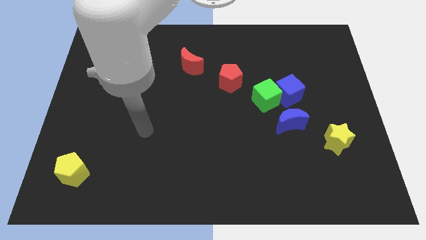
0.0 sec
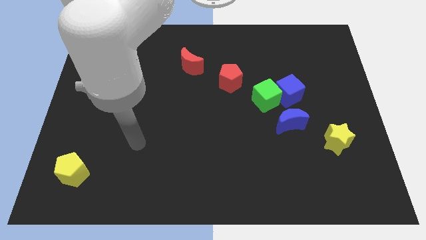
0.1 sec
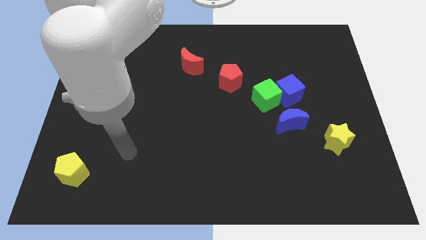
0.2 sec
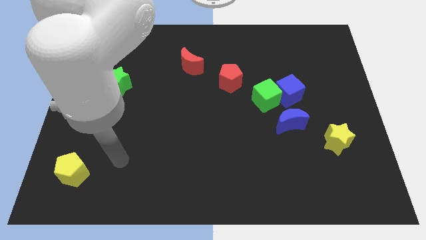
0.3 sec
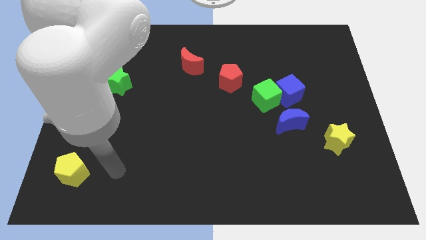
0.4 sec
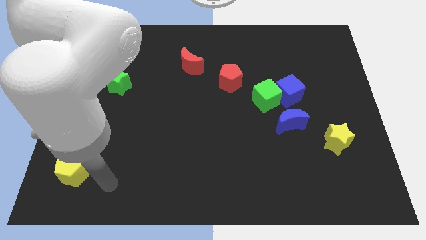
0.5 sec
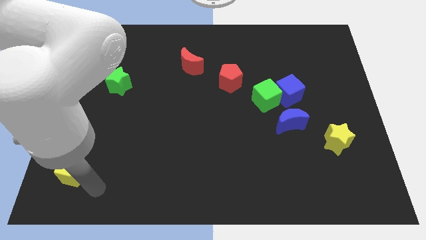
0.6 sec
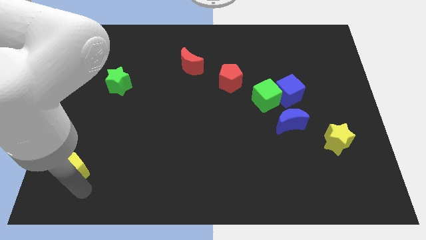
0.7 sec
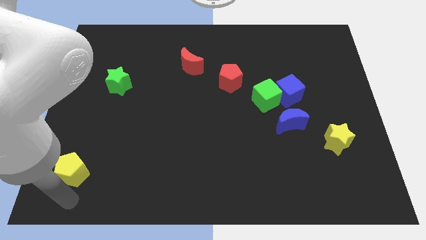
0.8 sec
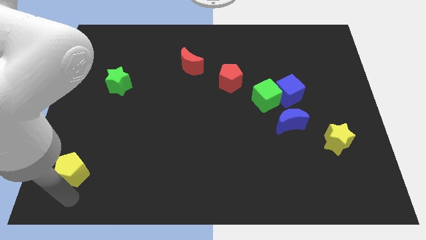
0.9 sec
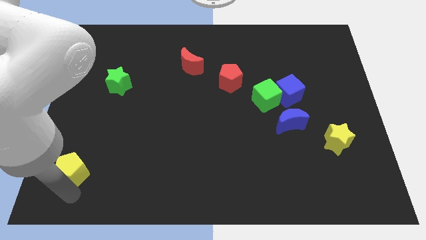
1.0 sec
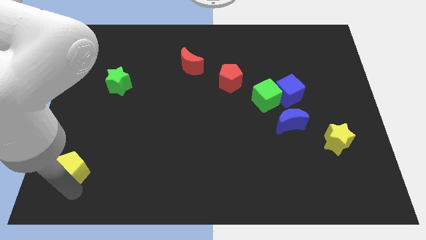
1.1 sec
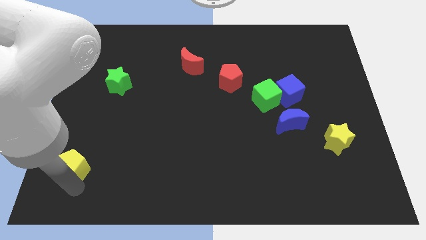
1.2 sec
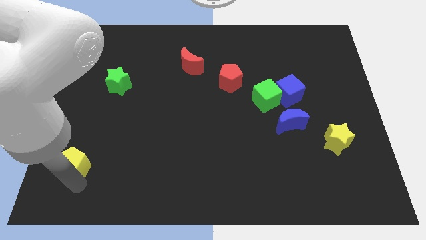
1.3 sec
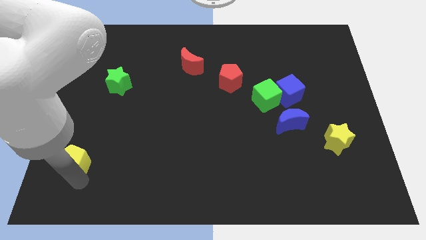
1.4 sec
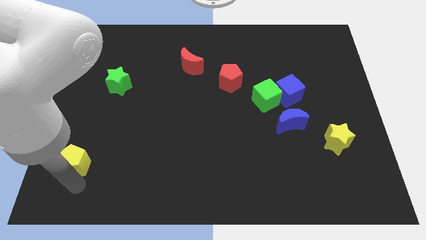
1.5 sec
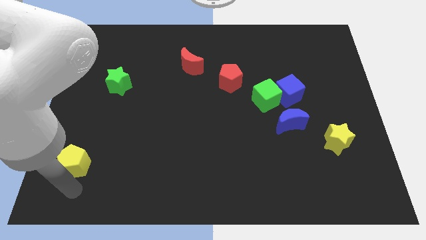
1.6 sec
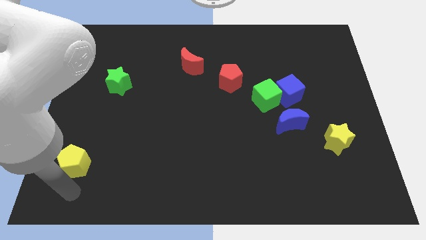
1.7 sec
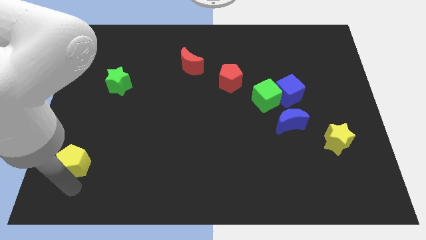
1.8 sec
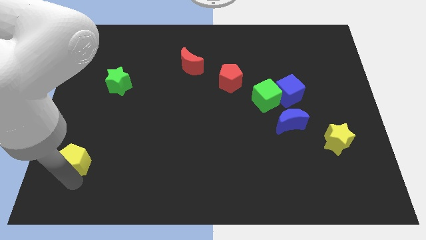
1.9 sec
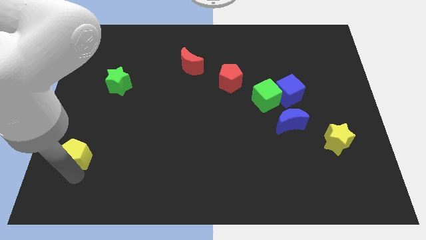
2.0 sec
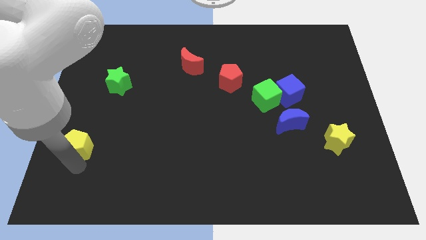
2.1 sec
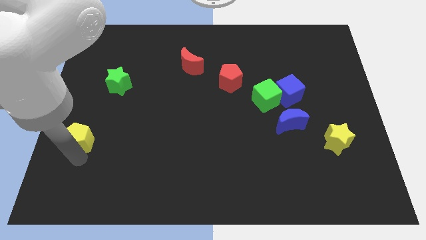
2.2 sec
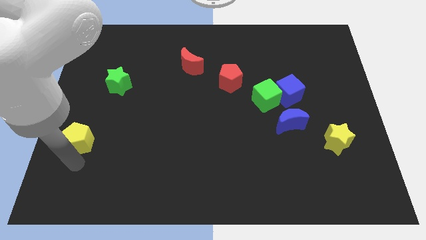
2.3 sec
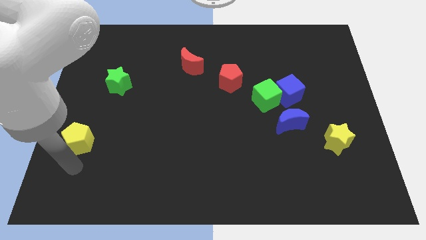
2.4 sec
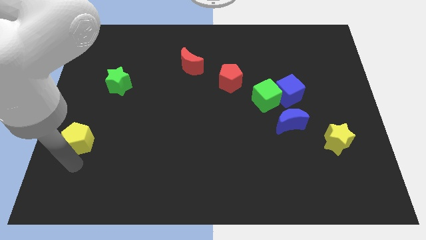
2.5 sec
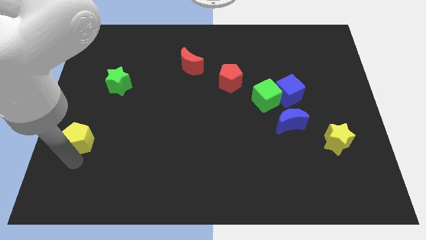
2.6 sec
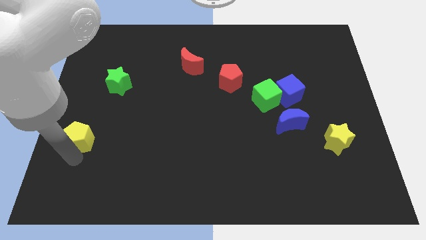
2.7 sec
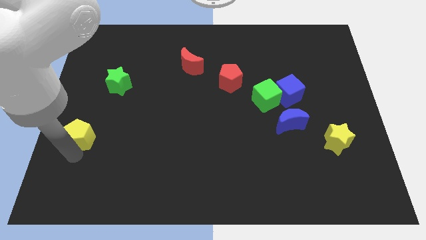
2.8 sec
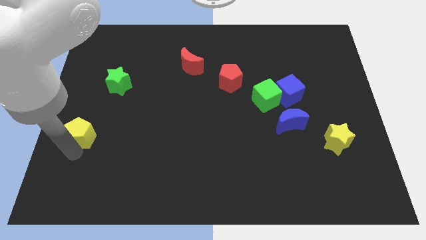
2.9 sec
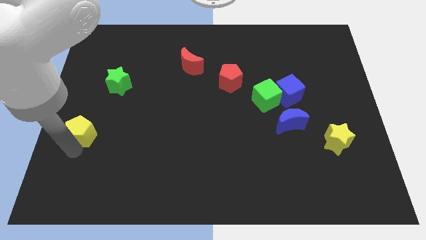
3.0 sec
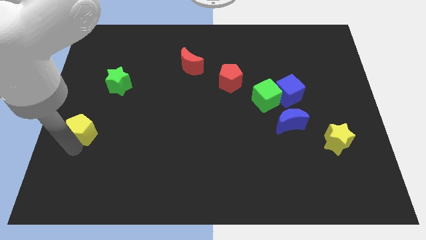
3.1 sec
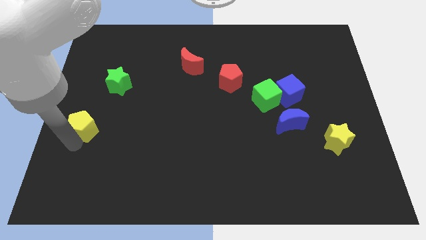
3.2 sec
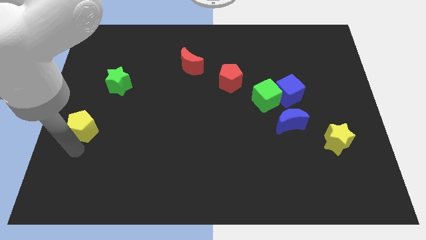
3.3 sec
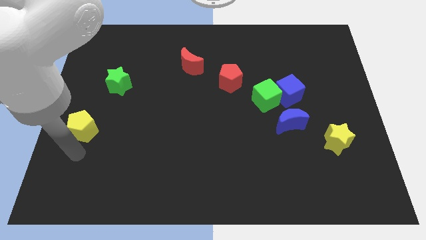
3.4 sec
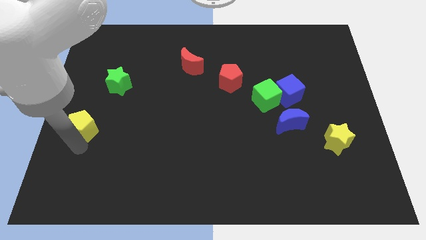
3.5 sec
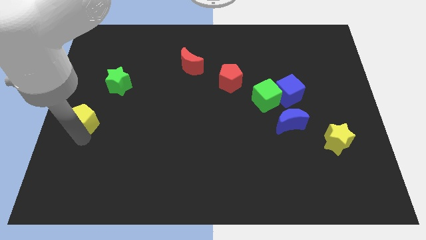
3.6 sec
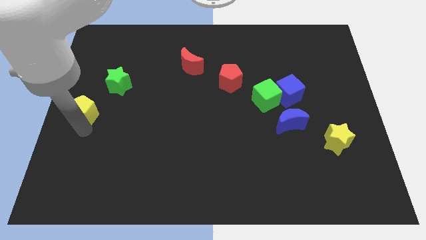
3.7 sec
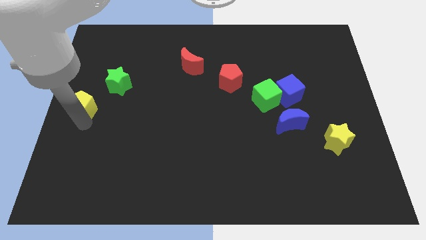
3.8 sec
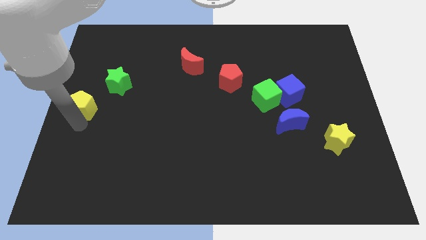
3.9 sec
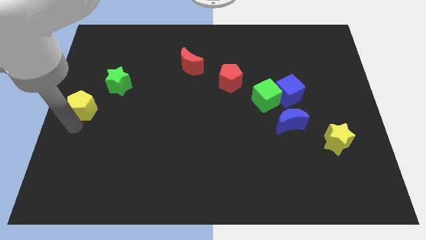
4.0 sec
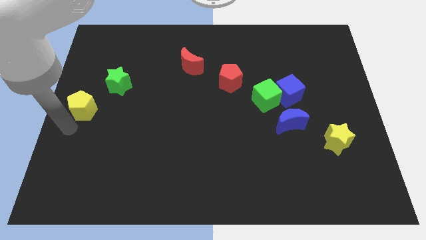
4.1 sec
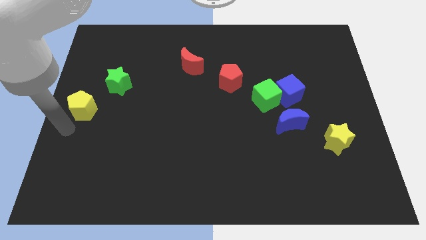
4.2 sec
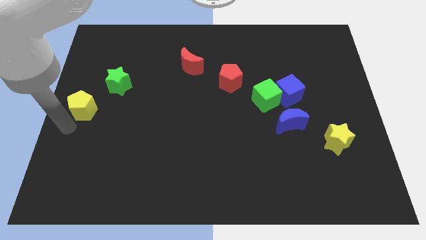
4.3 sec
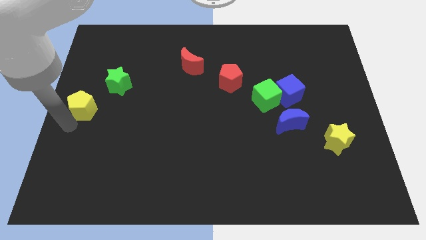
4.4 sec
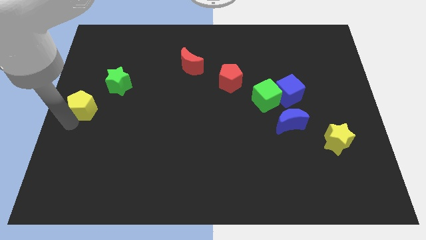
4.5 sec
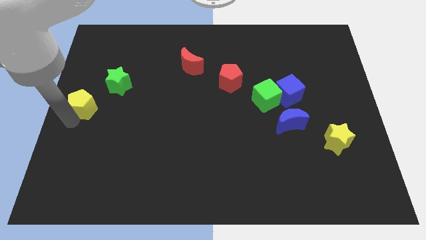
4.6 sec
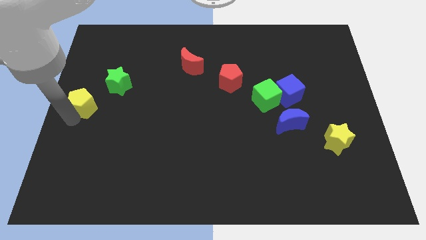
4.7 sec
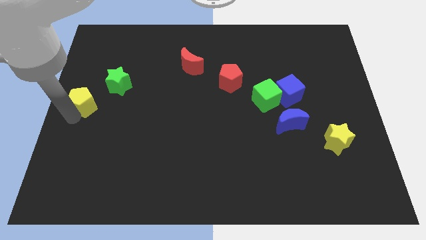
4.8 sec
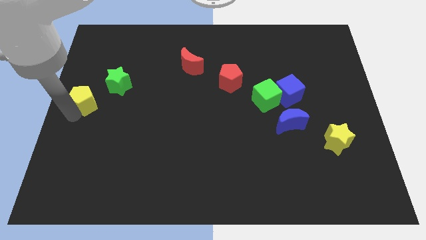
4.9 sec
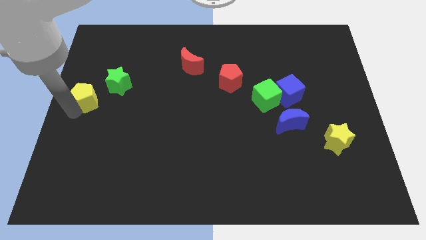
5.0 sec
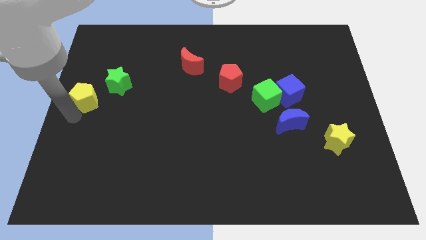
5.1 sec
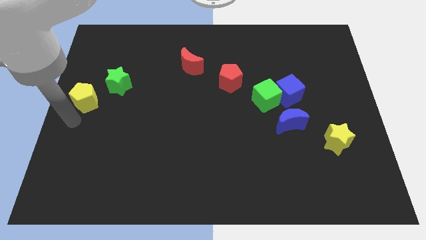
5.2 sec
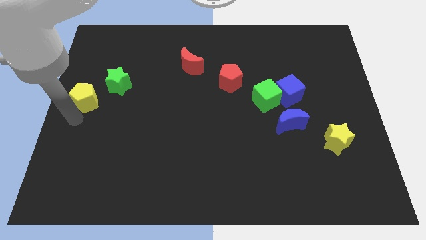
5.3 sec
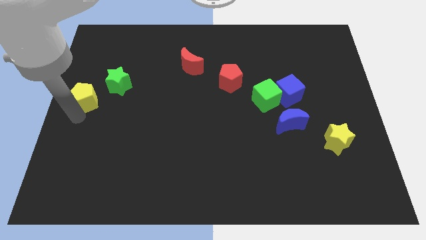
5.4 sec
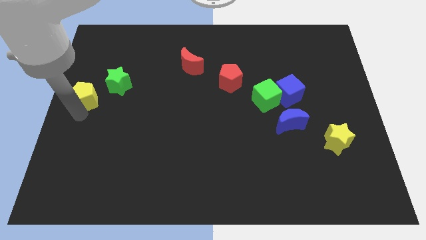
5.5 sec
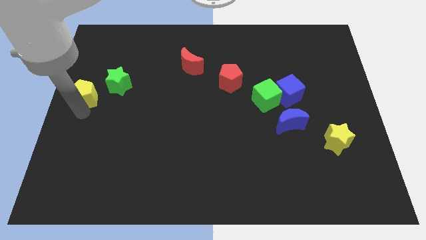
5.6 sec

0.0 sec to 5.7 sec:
push the yellow pentagon upwards

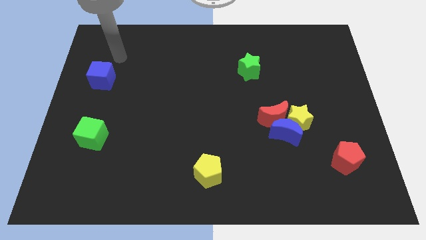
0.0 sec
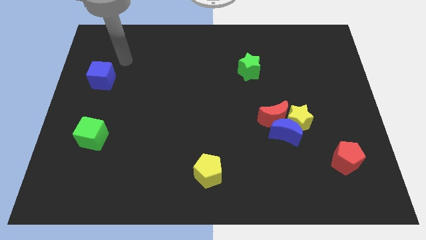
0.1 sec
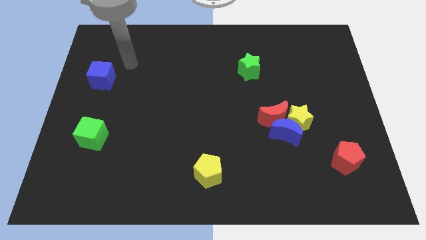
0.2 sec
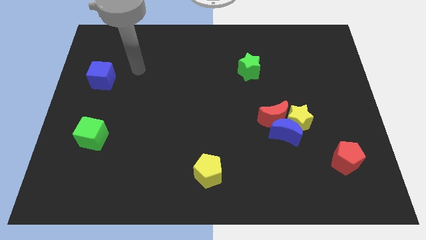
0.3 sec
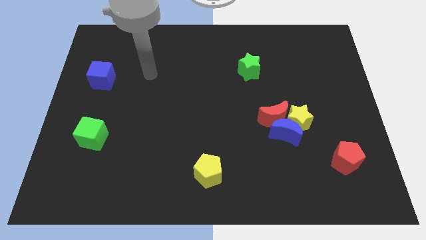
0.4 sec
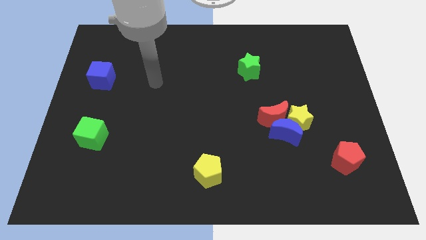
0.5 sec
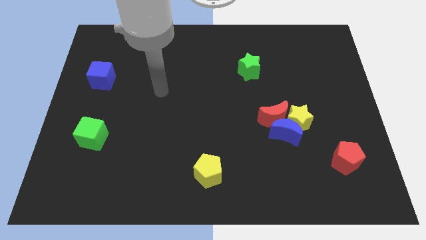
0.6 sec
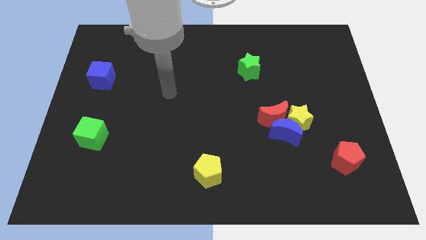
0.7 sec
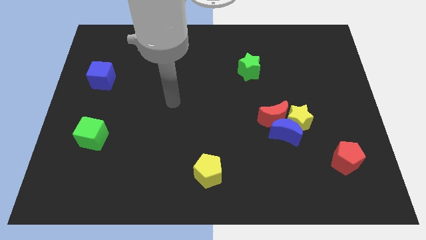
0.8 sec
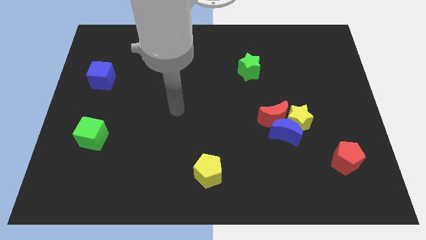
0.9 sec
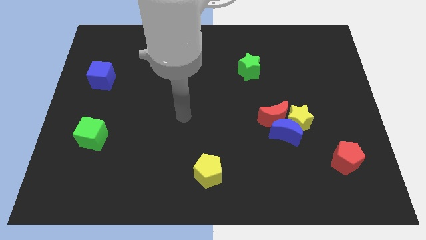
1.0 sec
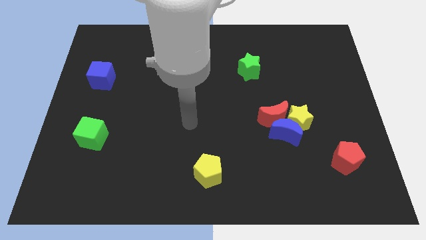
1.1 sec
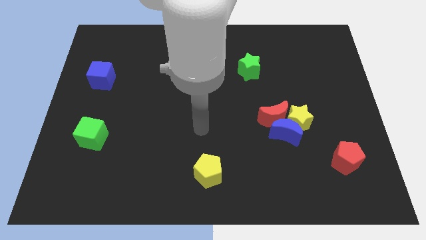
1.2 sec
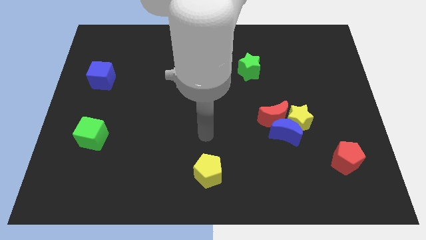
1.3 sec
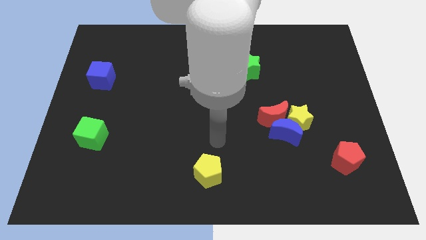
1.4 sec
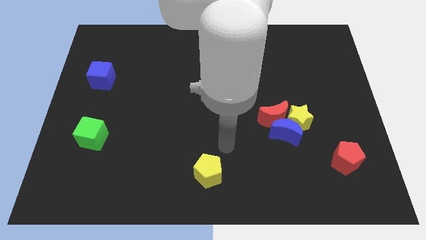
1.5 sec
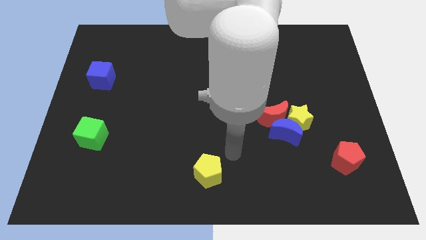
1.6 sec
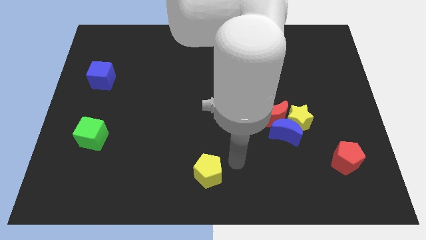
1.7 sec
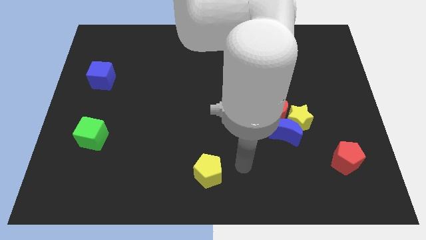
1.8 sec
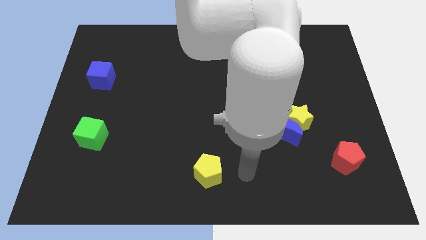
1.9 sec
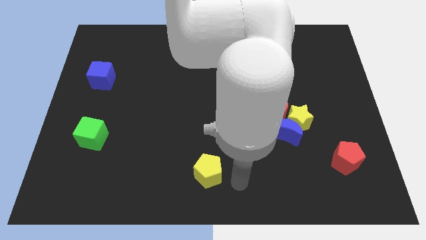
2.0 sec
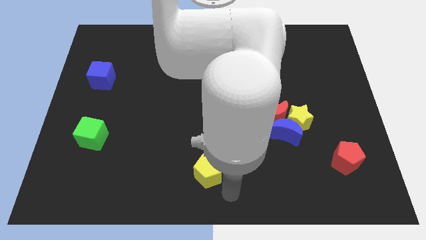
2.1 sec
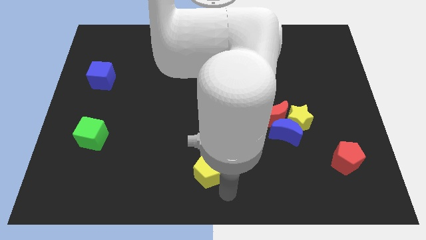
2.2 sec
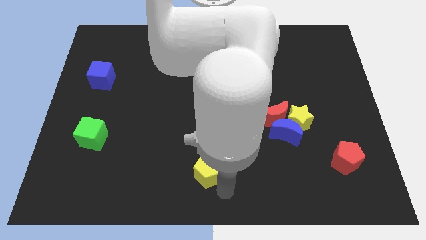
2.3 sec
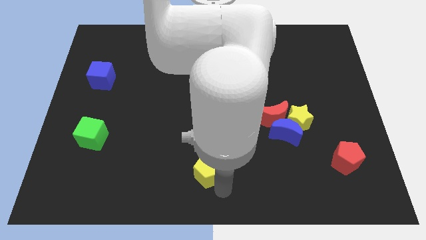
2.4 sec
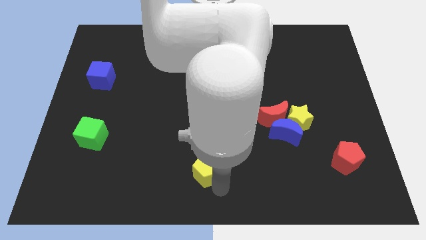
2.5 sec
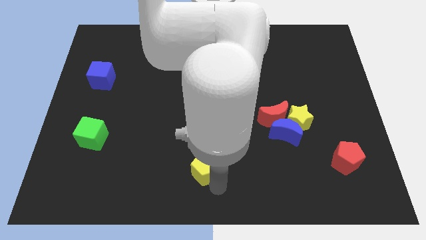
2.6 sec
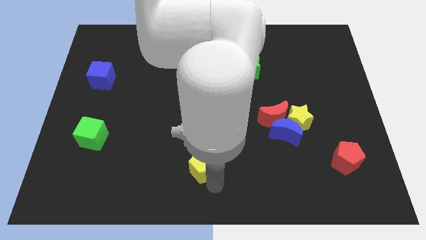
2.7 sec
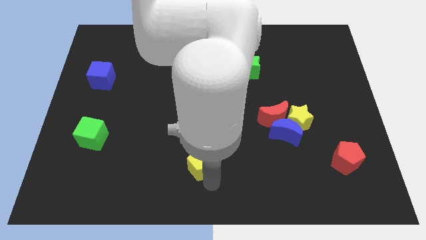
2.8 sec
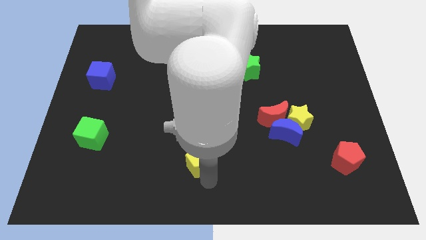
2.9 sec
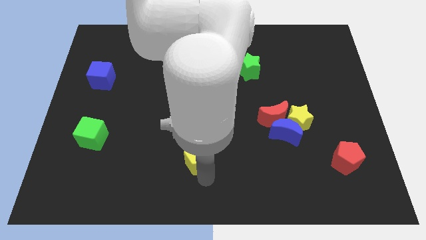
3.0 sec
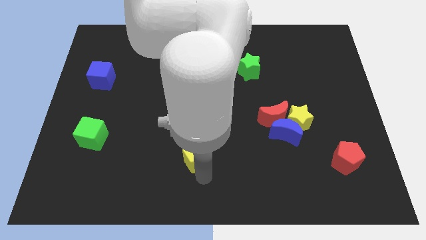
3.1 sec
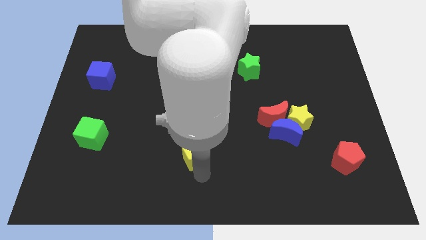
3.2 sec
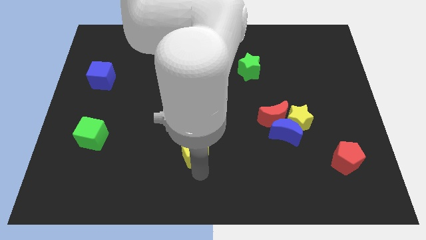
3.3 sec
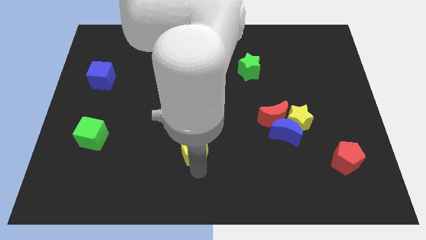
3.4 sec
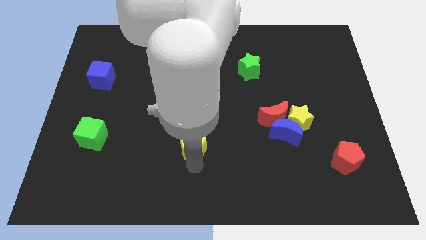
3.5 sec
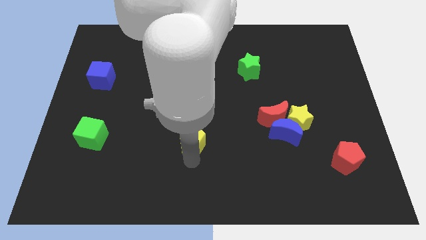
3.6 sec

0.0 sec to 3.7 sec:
move the yellow pentagon up and to the left a little bit
